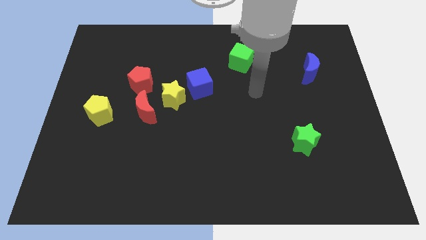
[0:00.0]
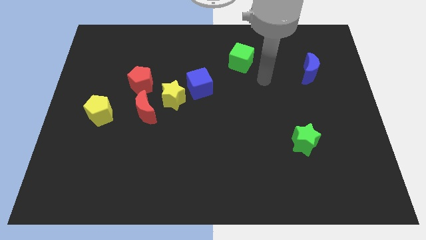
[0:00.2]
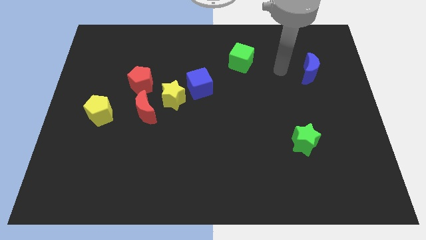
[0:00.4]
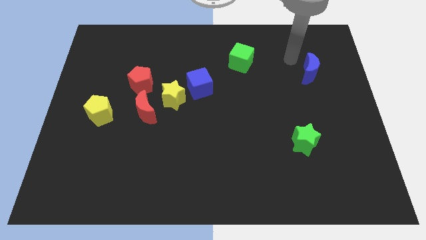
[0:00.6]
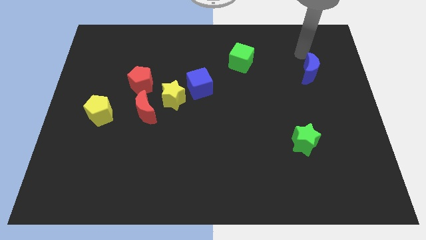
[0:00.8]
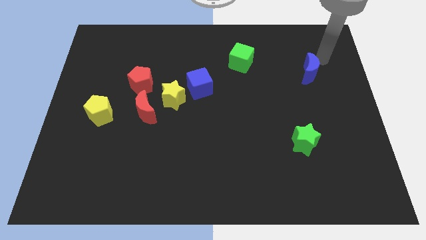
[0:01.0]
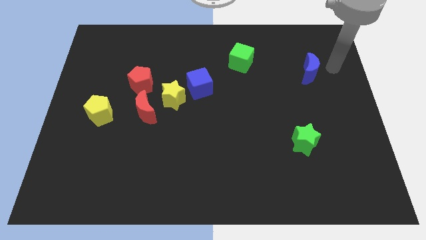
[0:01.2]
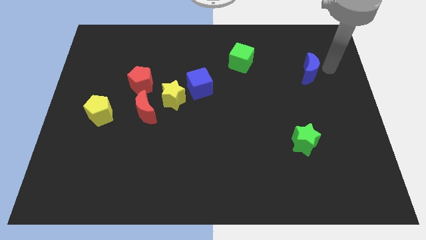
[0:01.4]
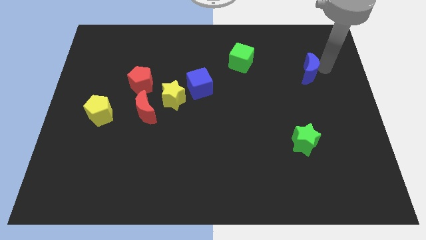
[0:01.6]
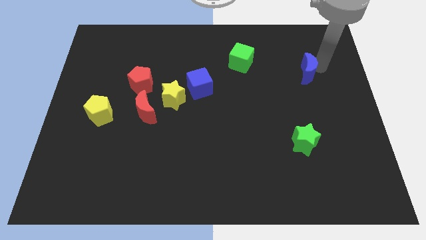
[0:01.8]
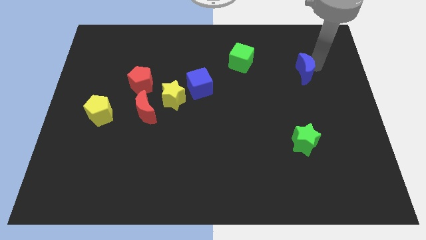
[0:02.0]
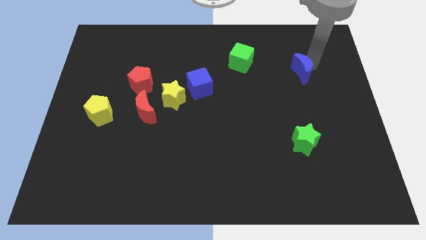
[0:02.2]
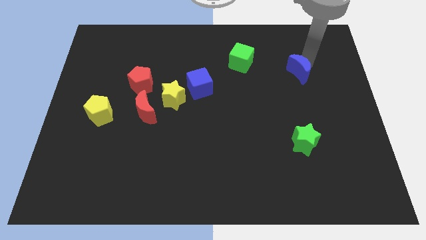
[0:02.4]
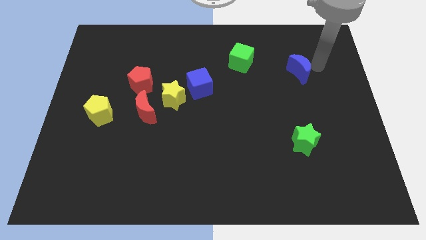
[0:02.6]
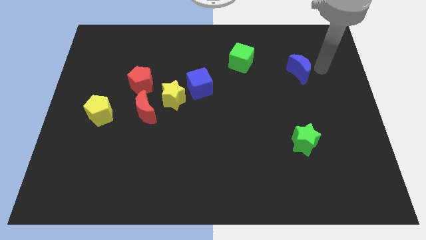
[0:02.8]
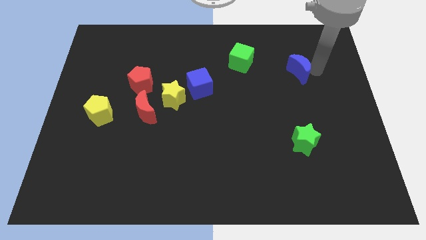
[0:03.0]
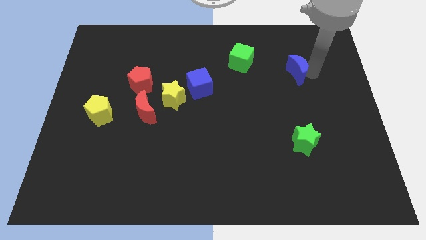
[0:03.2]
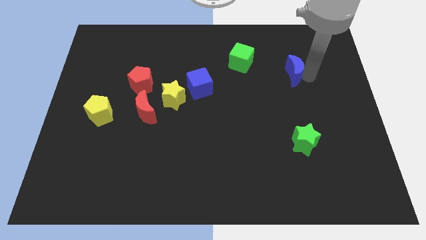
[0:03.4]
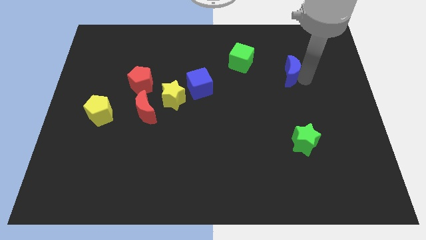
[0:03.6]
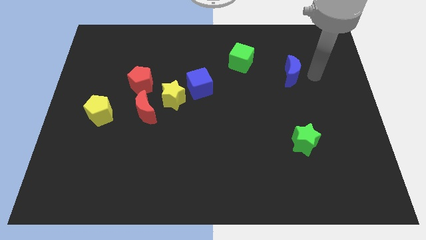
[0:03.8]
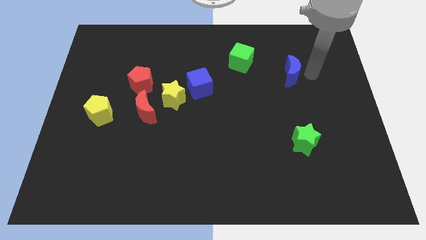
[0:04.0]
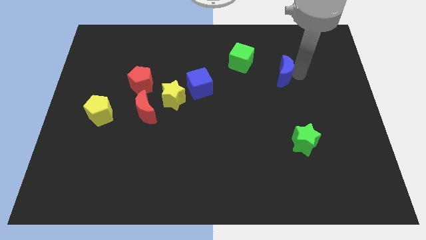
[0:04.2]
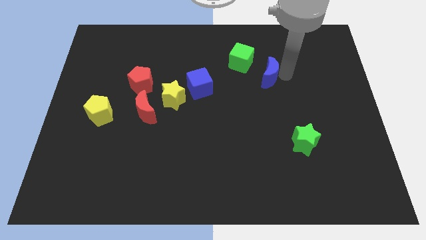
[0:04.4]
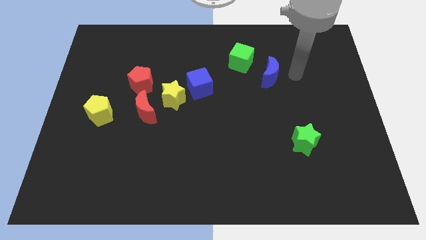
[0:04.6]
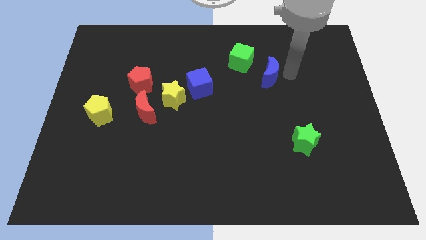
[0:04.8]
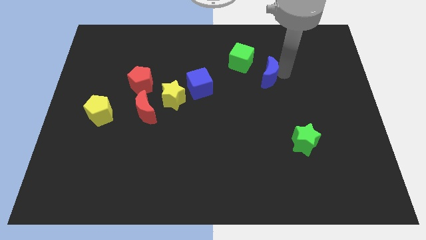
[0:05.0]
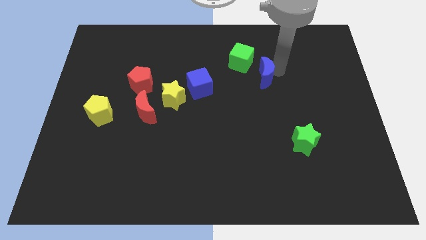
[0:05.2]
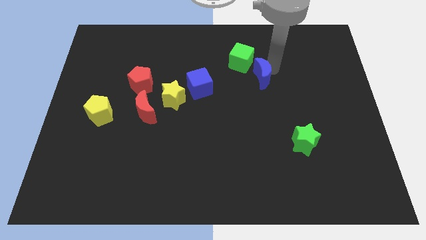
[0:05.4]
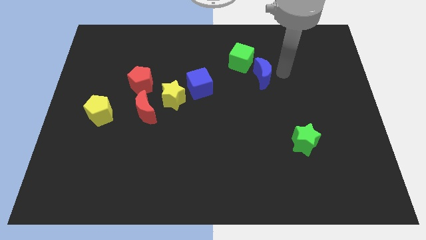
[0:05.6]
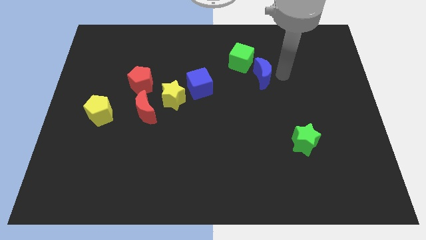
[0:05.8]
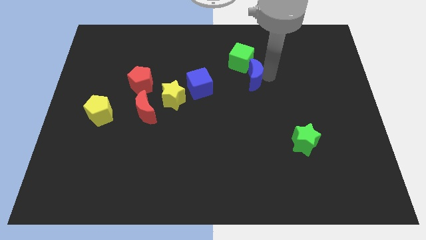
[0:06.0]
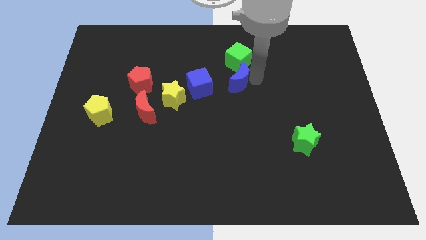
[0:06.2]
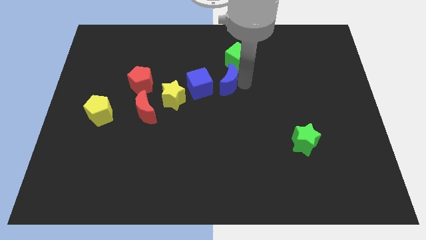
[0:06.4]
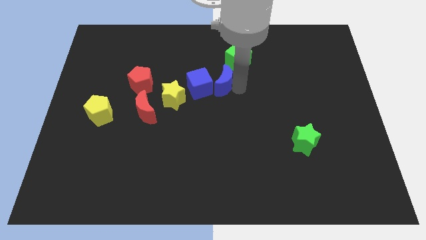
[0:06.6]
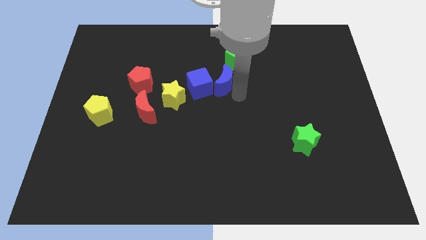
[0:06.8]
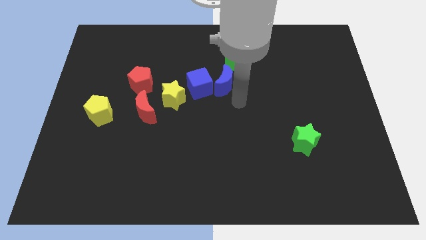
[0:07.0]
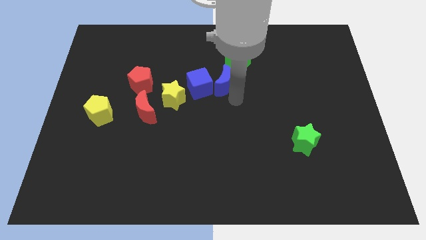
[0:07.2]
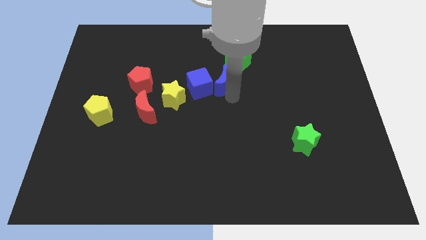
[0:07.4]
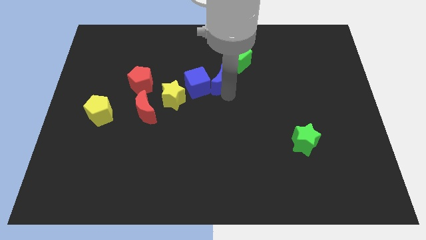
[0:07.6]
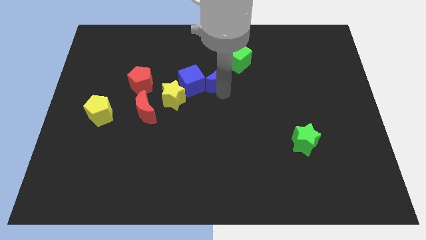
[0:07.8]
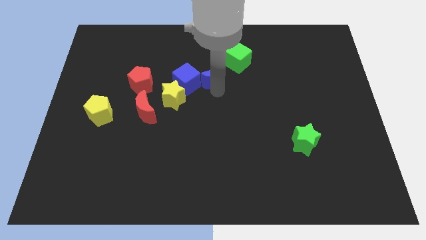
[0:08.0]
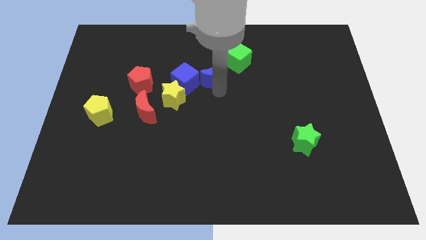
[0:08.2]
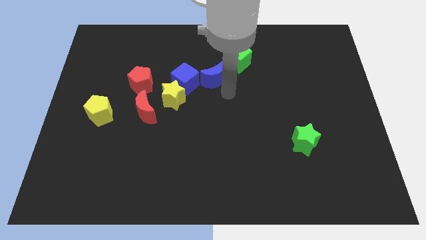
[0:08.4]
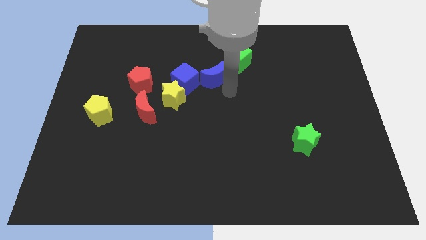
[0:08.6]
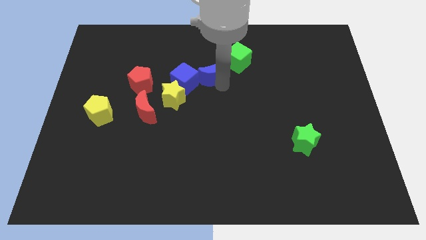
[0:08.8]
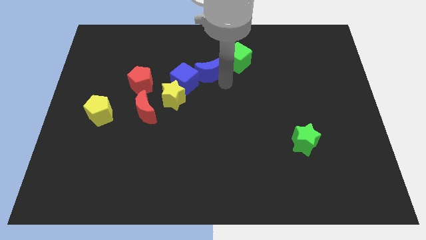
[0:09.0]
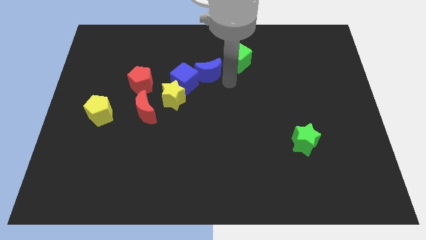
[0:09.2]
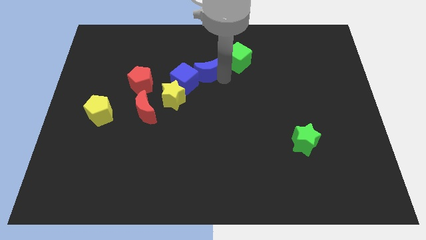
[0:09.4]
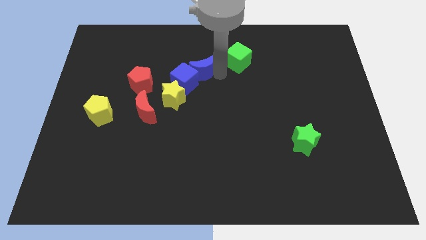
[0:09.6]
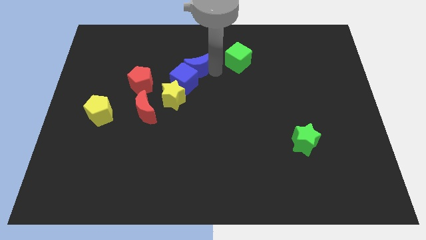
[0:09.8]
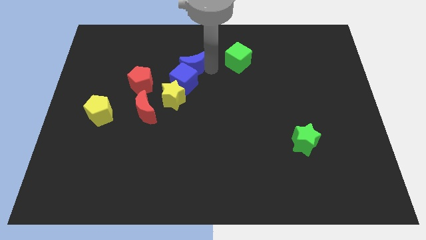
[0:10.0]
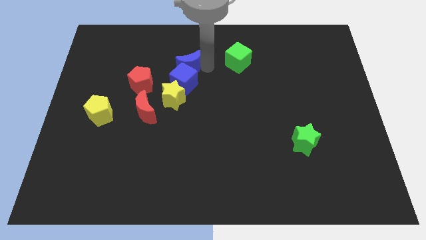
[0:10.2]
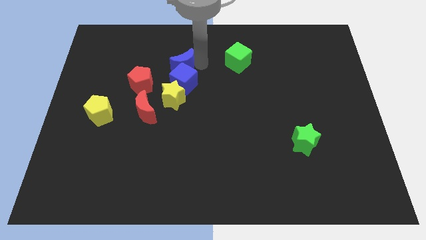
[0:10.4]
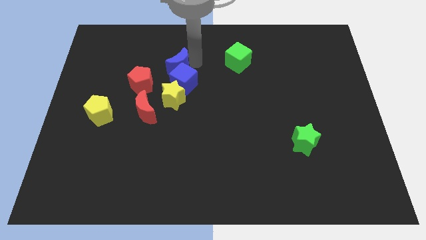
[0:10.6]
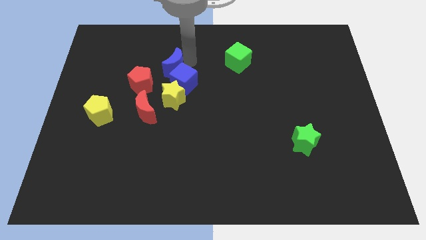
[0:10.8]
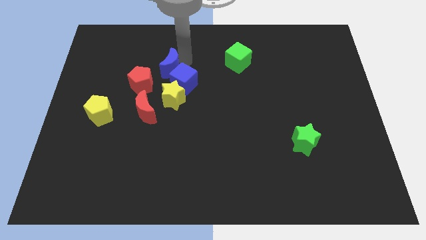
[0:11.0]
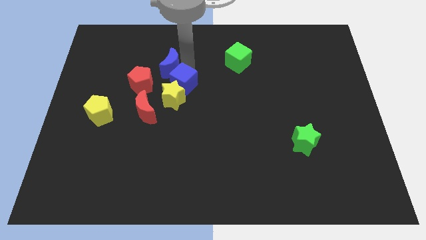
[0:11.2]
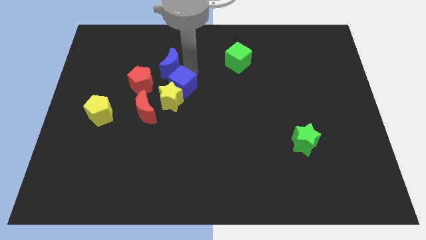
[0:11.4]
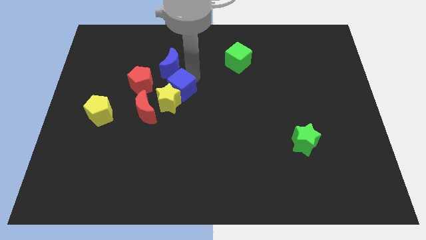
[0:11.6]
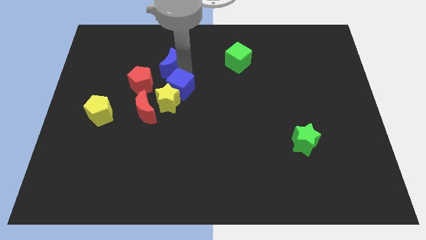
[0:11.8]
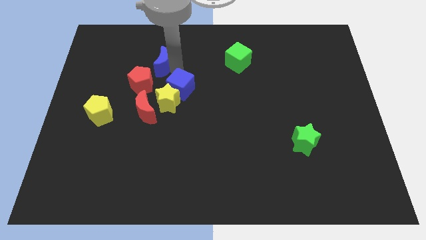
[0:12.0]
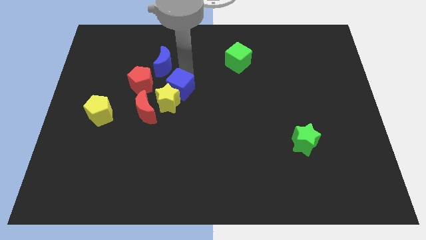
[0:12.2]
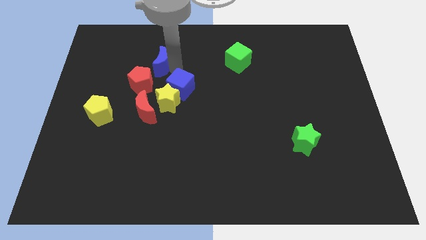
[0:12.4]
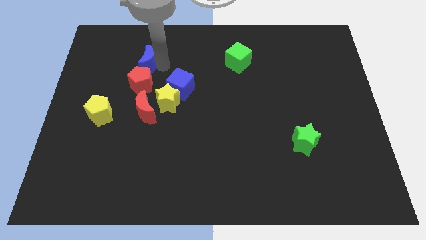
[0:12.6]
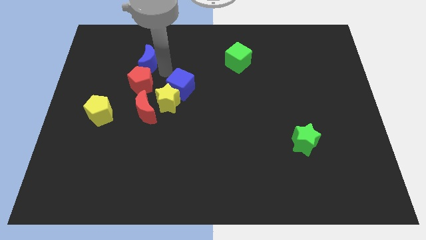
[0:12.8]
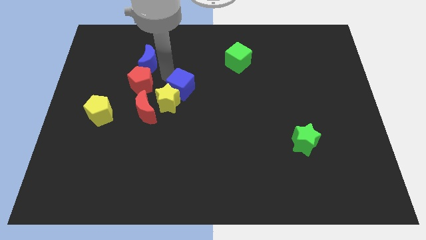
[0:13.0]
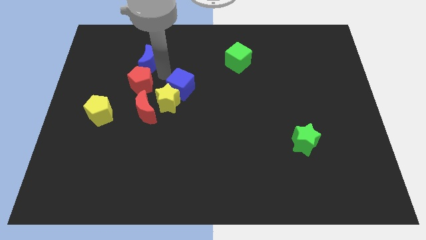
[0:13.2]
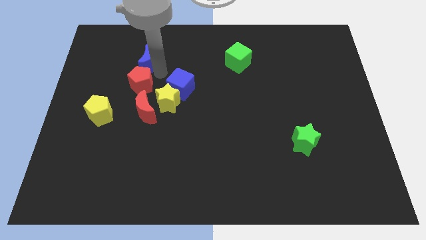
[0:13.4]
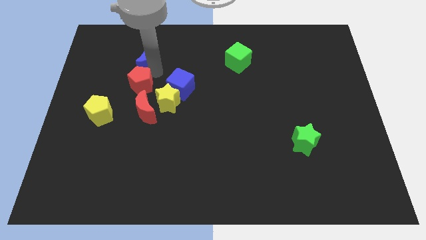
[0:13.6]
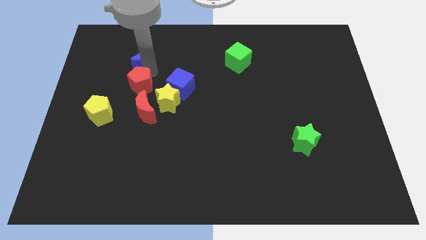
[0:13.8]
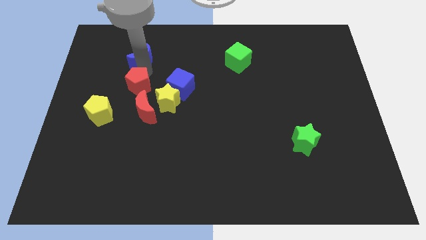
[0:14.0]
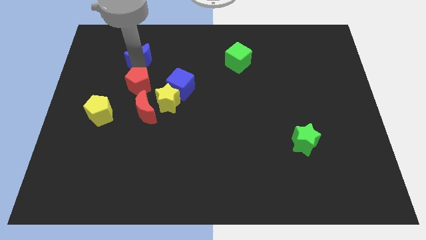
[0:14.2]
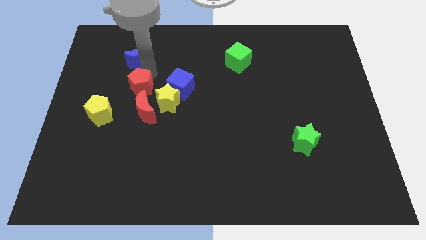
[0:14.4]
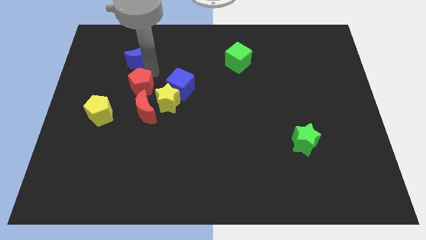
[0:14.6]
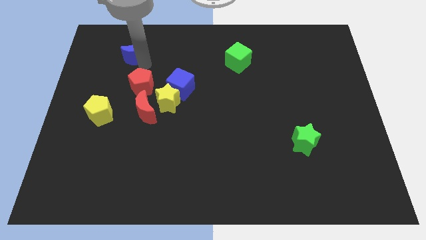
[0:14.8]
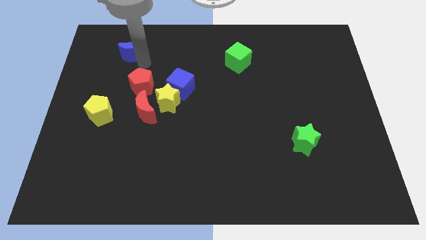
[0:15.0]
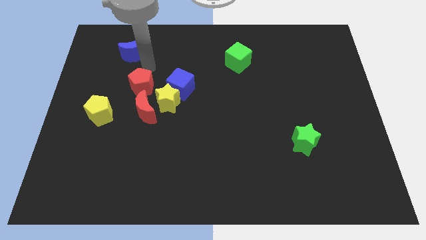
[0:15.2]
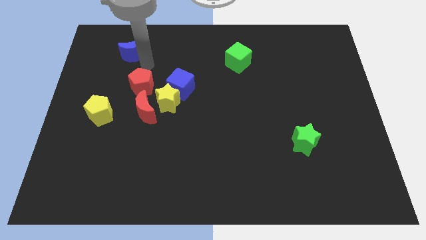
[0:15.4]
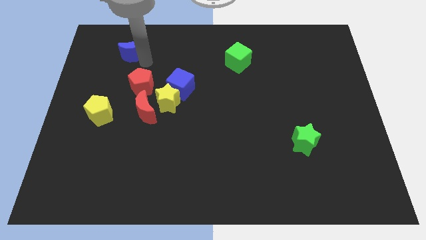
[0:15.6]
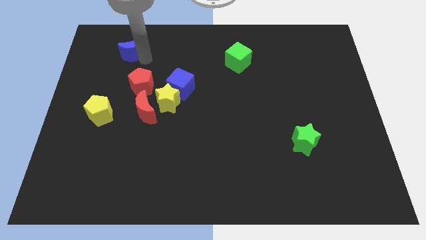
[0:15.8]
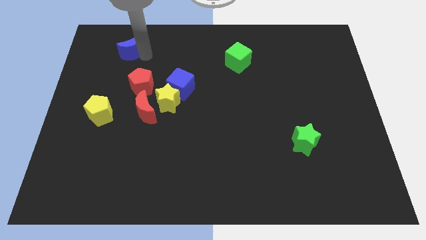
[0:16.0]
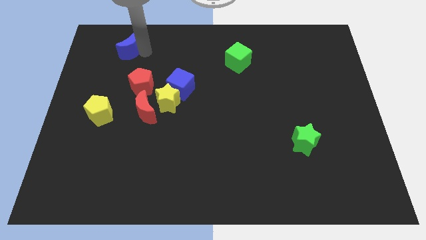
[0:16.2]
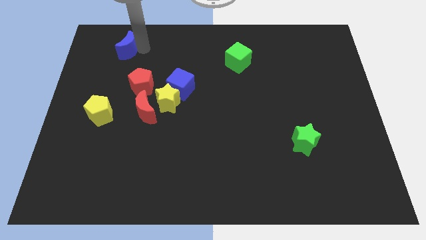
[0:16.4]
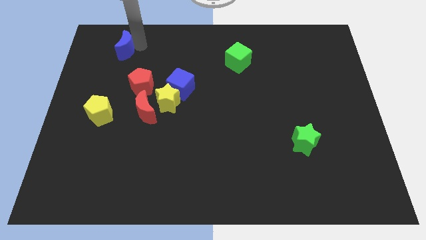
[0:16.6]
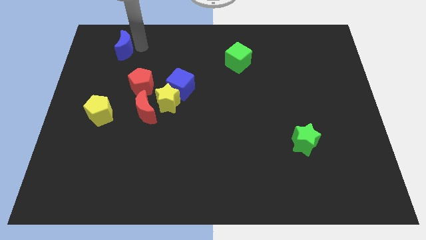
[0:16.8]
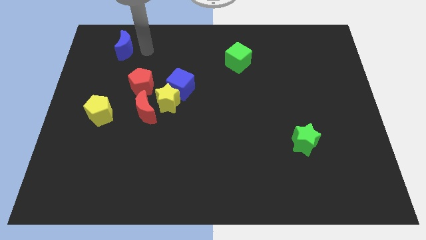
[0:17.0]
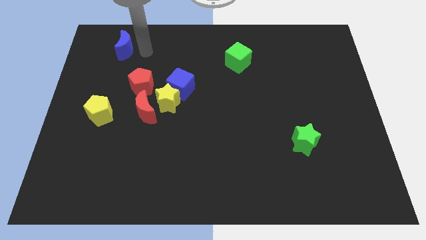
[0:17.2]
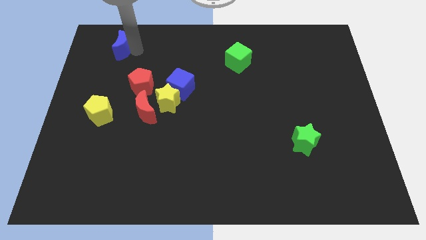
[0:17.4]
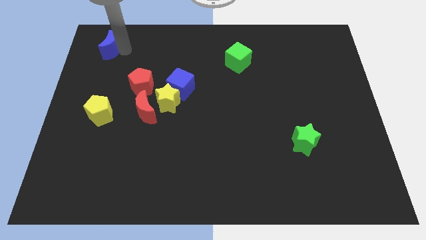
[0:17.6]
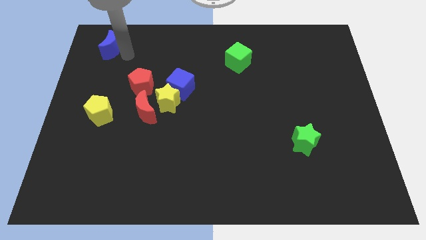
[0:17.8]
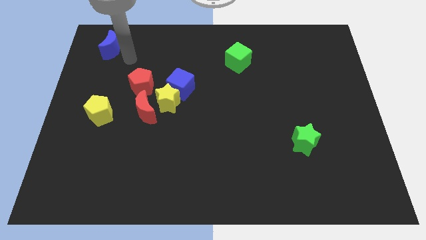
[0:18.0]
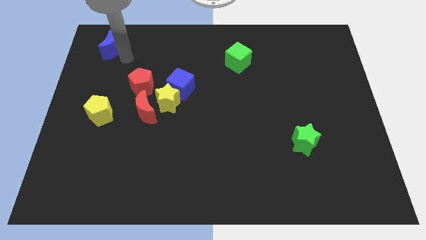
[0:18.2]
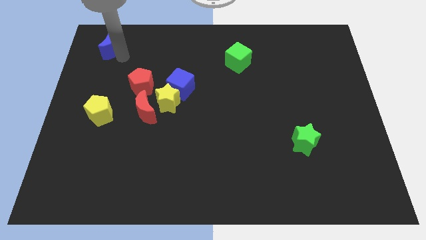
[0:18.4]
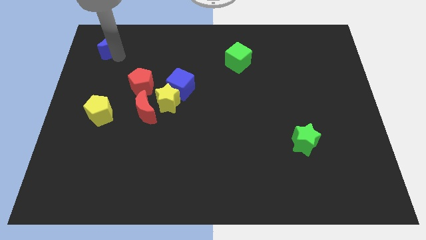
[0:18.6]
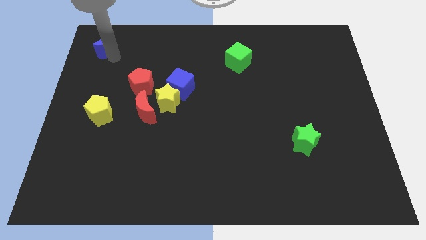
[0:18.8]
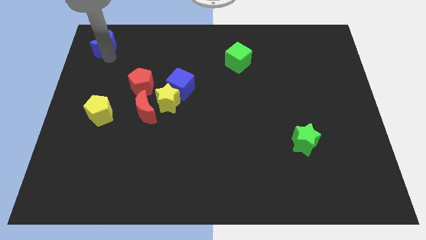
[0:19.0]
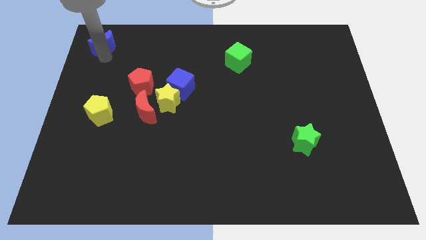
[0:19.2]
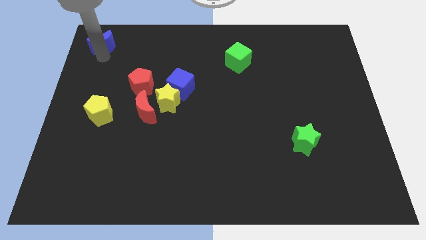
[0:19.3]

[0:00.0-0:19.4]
push the blue moon to the top left corner
